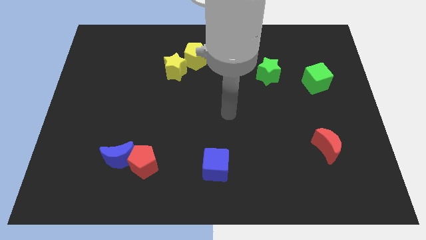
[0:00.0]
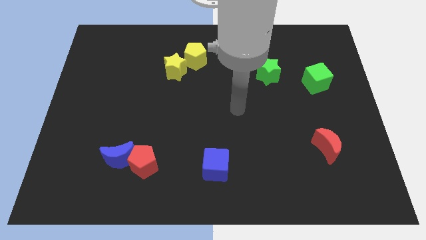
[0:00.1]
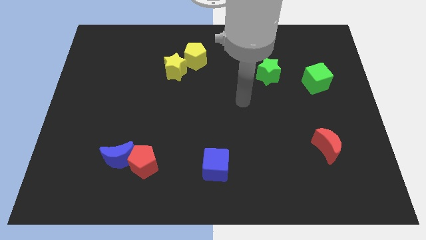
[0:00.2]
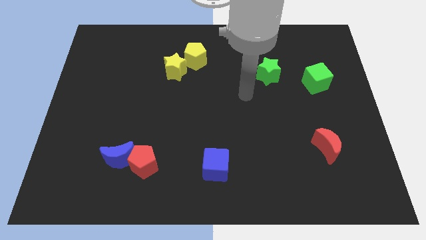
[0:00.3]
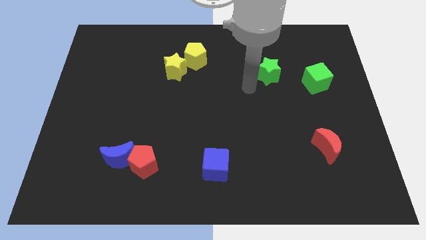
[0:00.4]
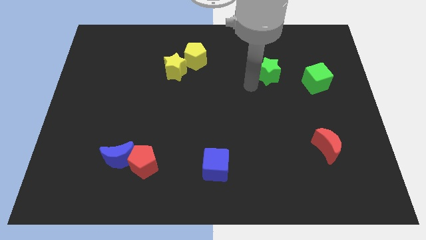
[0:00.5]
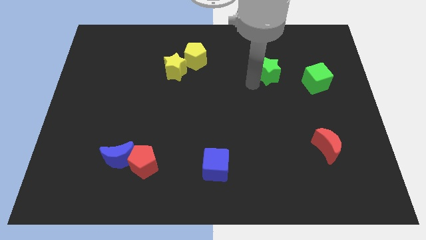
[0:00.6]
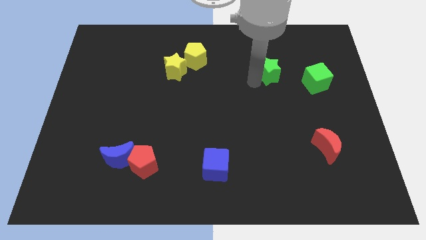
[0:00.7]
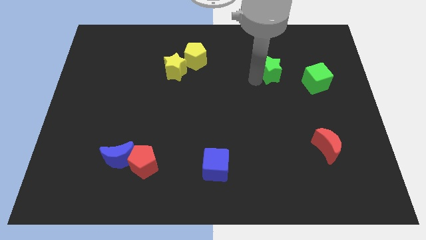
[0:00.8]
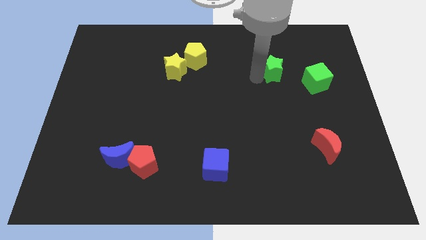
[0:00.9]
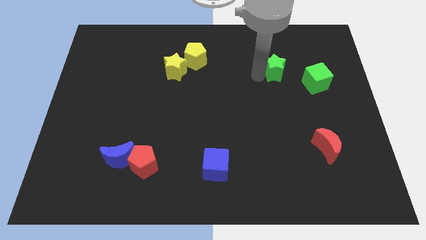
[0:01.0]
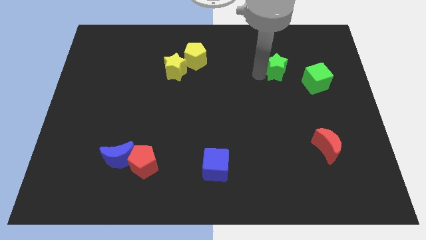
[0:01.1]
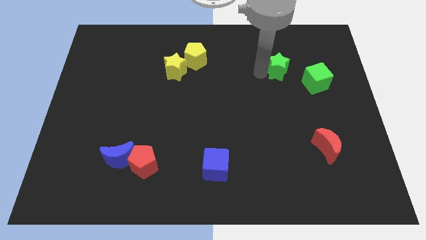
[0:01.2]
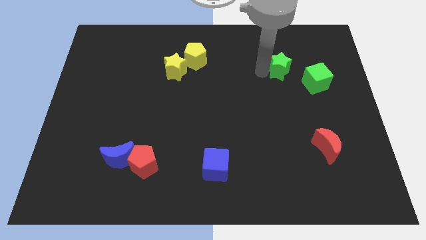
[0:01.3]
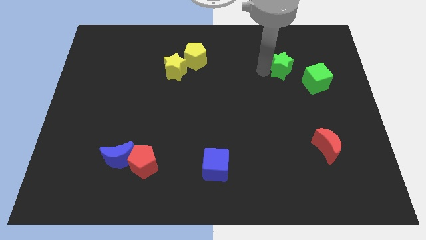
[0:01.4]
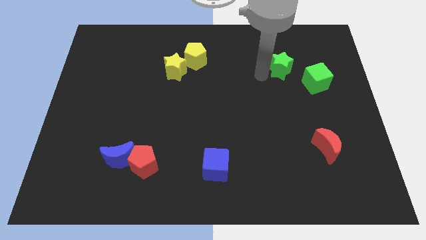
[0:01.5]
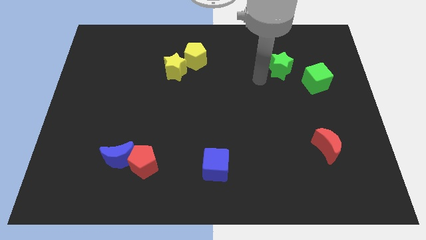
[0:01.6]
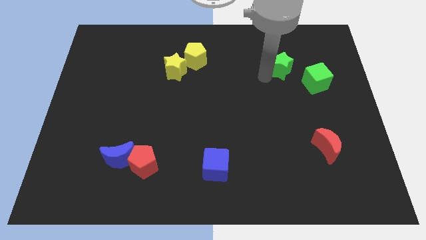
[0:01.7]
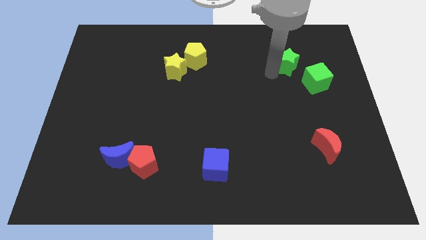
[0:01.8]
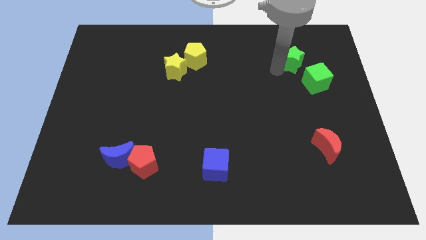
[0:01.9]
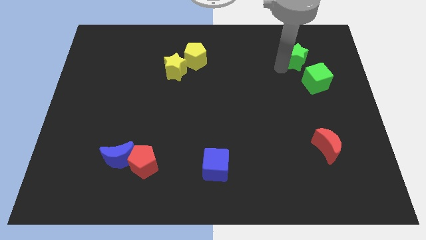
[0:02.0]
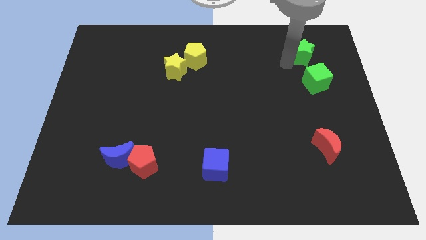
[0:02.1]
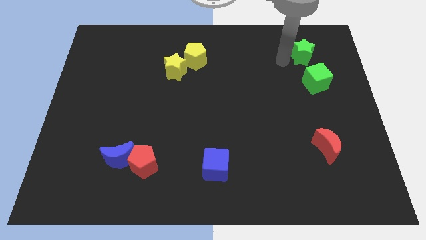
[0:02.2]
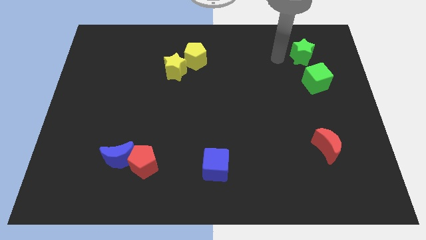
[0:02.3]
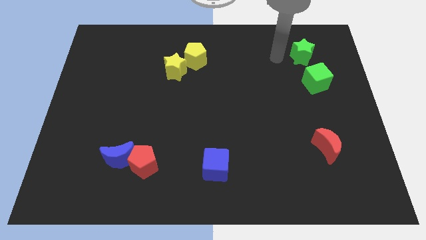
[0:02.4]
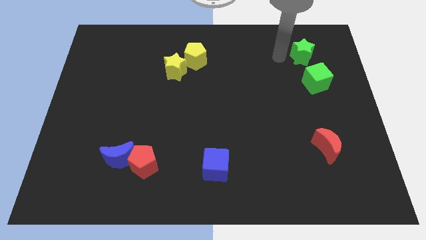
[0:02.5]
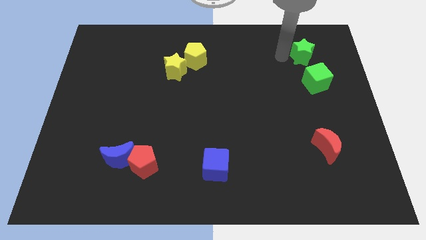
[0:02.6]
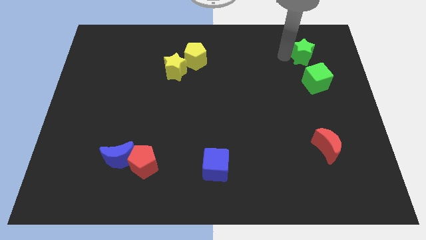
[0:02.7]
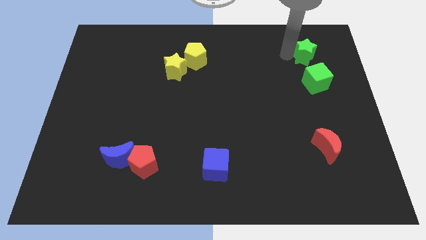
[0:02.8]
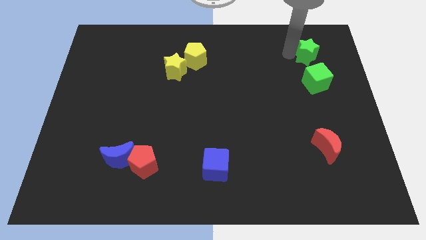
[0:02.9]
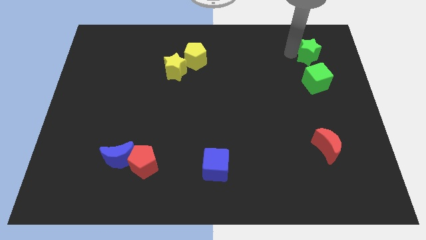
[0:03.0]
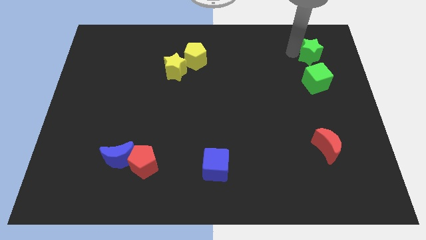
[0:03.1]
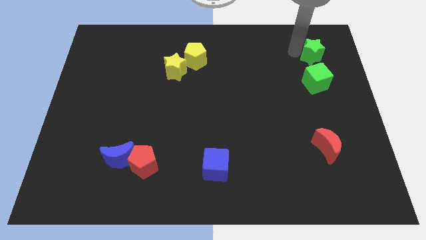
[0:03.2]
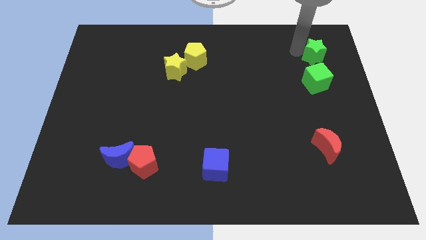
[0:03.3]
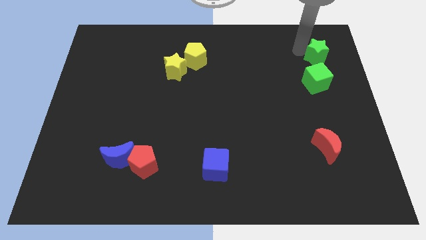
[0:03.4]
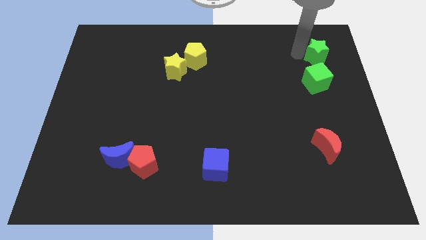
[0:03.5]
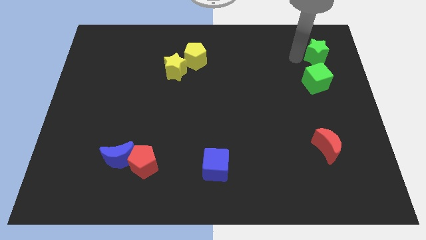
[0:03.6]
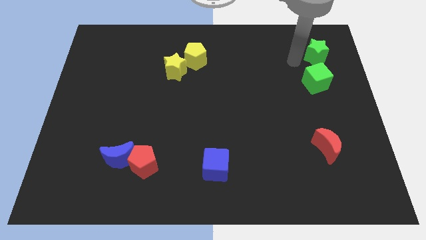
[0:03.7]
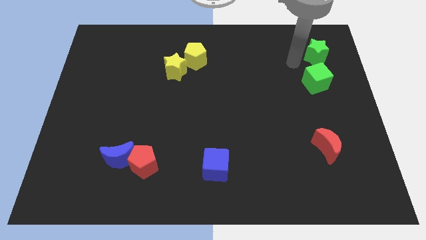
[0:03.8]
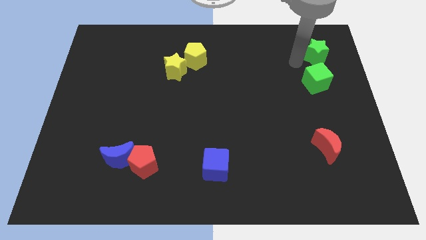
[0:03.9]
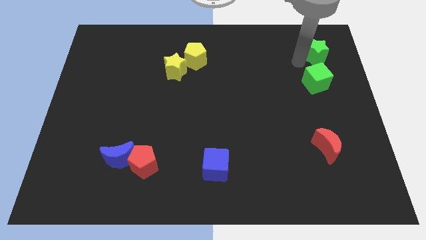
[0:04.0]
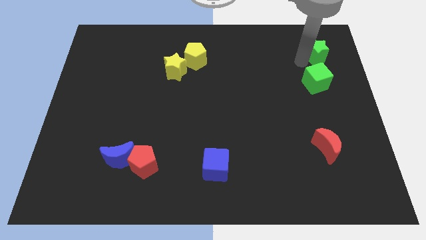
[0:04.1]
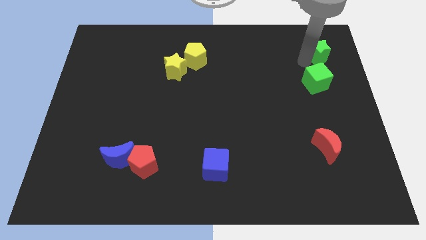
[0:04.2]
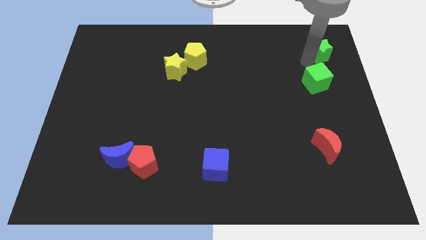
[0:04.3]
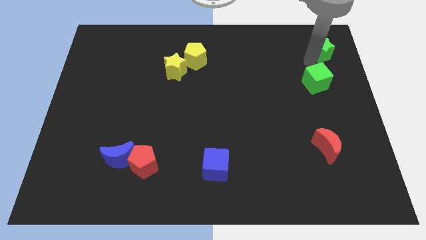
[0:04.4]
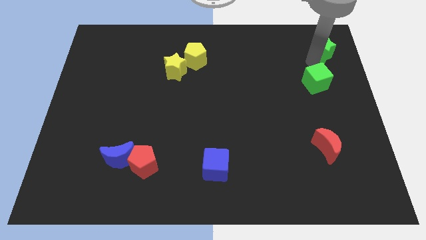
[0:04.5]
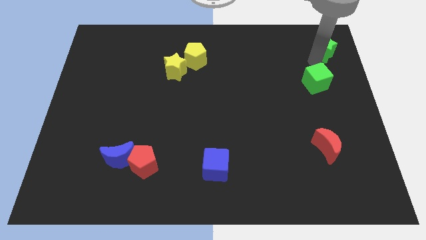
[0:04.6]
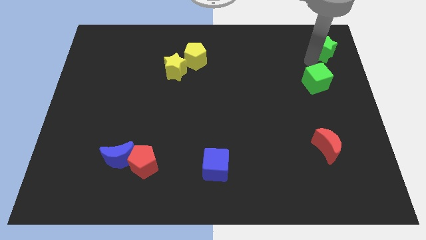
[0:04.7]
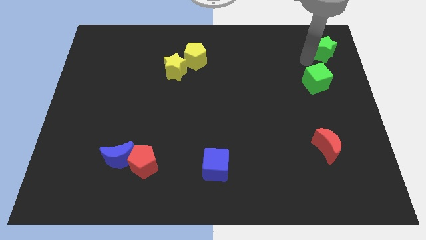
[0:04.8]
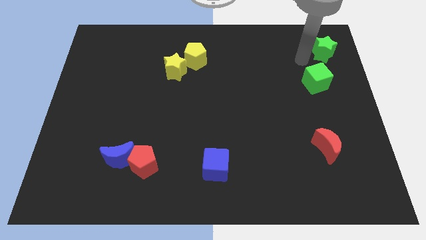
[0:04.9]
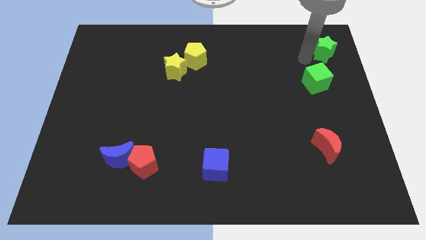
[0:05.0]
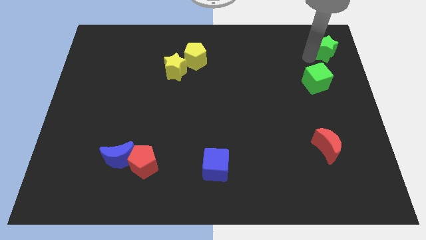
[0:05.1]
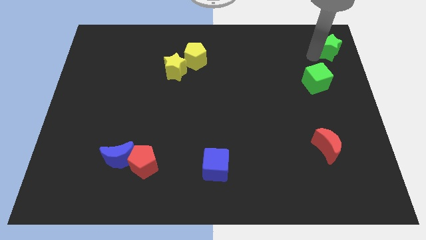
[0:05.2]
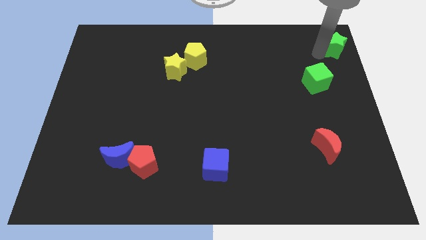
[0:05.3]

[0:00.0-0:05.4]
move the green star to the upper right corner

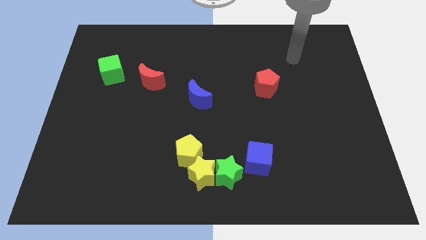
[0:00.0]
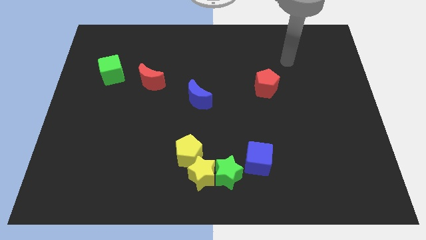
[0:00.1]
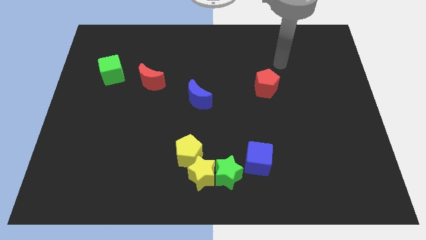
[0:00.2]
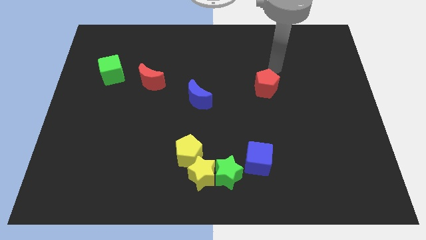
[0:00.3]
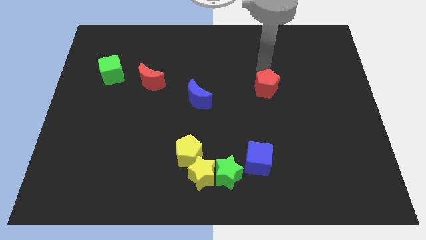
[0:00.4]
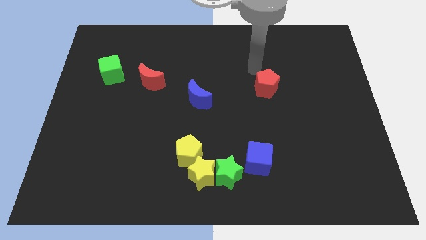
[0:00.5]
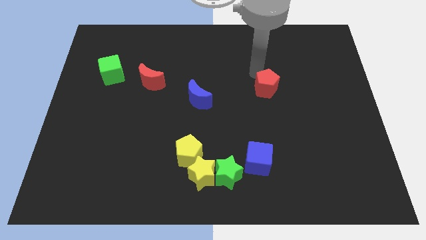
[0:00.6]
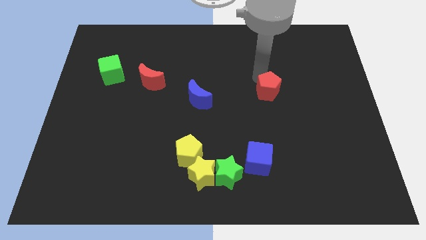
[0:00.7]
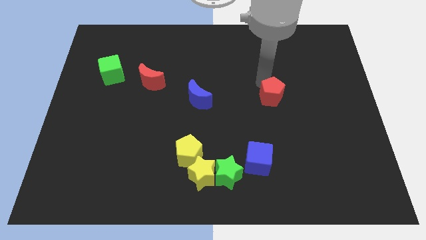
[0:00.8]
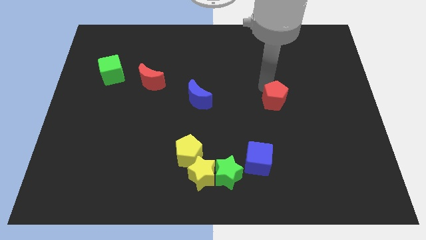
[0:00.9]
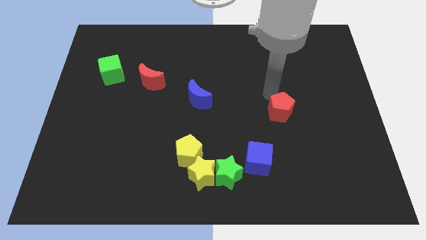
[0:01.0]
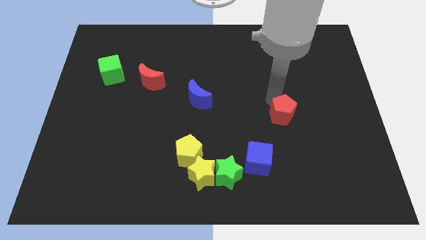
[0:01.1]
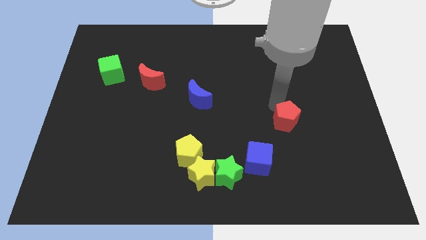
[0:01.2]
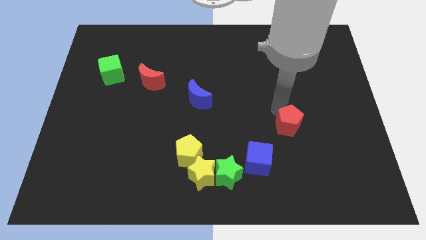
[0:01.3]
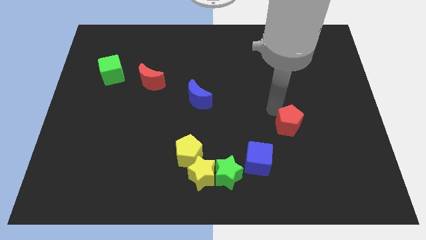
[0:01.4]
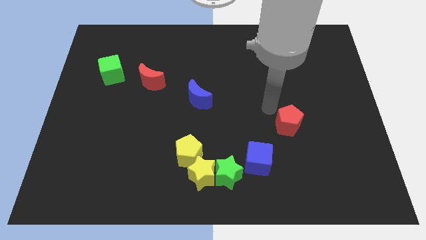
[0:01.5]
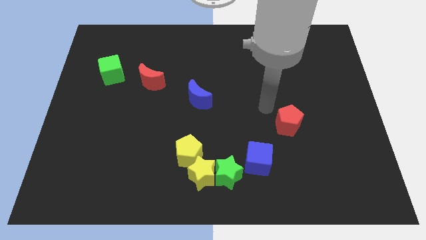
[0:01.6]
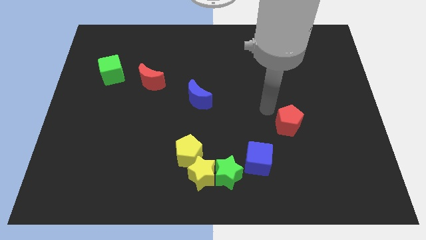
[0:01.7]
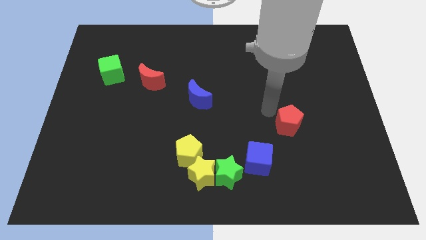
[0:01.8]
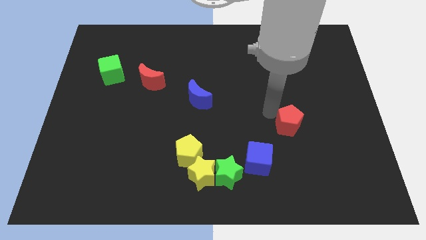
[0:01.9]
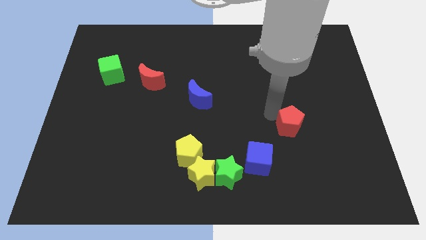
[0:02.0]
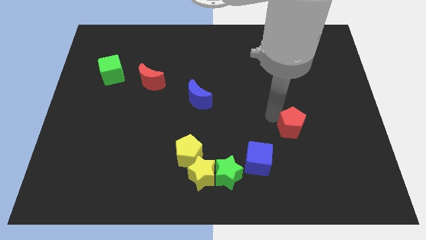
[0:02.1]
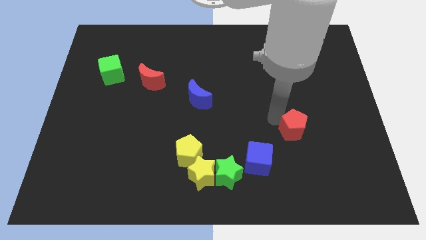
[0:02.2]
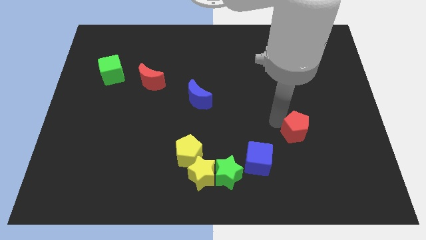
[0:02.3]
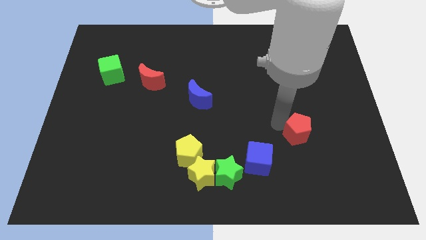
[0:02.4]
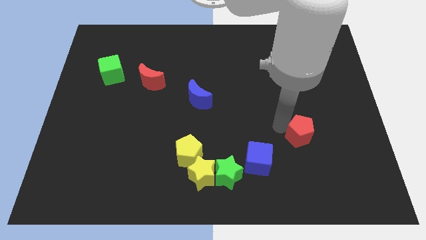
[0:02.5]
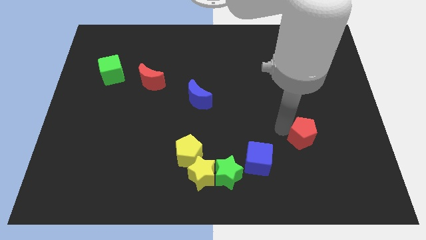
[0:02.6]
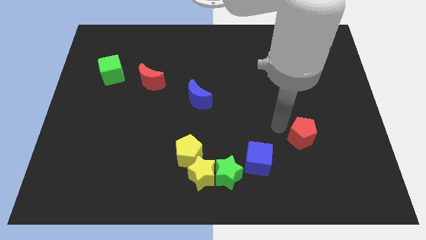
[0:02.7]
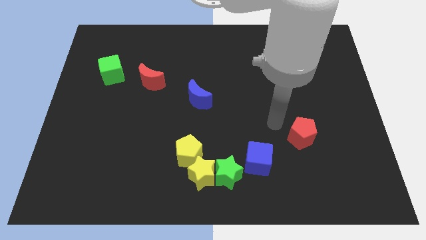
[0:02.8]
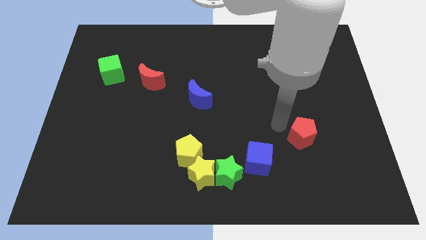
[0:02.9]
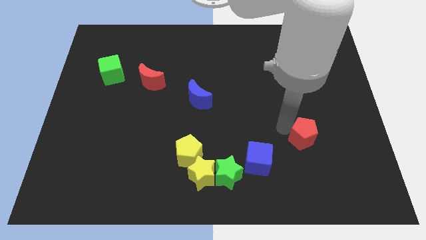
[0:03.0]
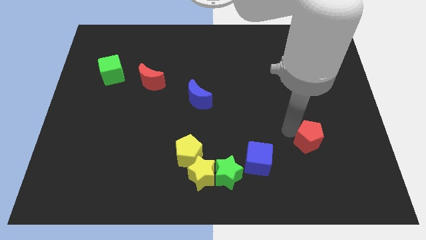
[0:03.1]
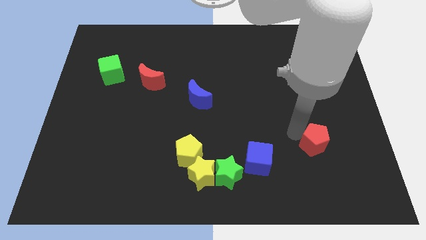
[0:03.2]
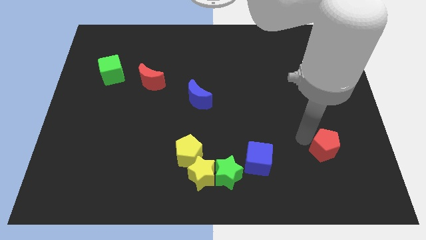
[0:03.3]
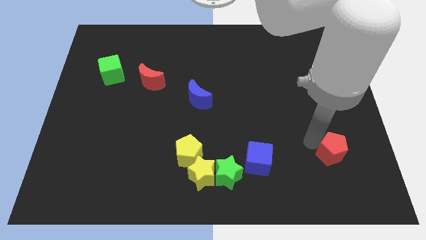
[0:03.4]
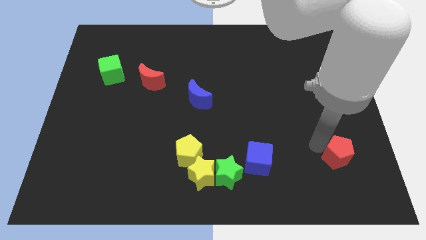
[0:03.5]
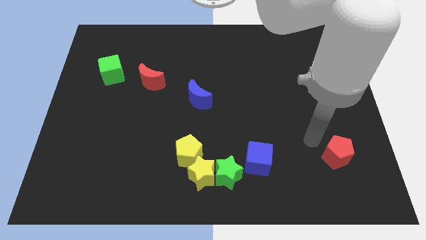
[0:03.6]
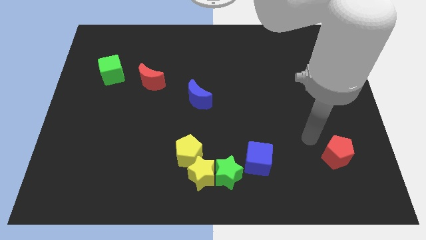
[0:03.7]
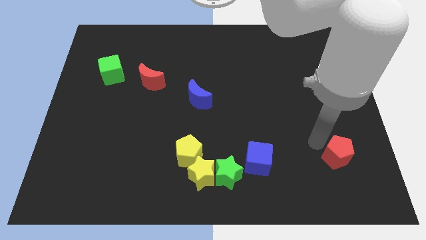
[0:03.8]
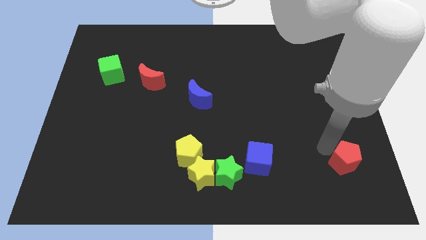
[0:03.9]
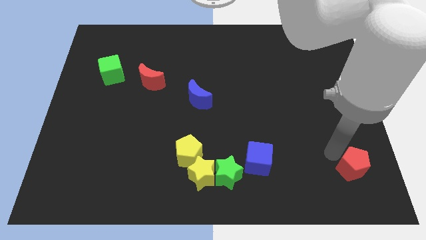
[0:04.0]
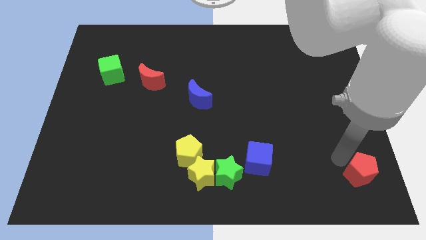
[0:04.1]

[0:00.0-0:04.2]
push the red pentagon to the bottom right
